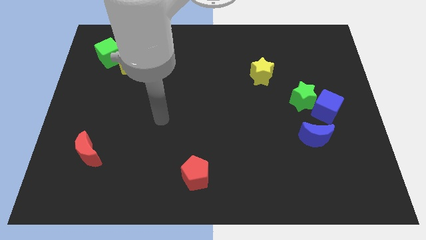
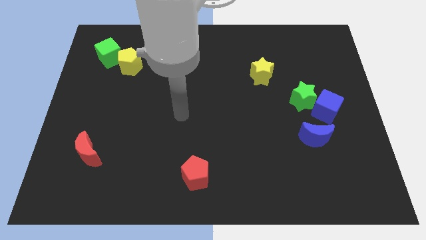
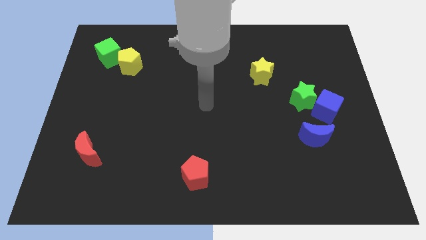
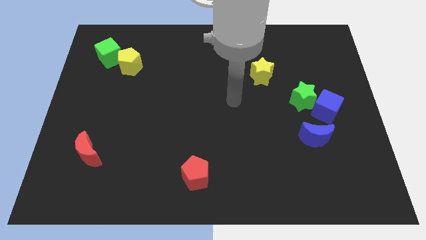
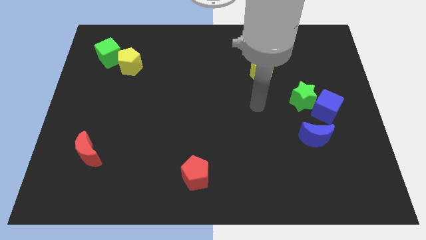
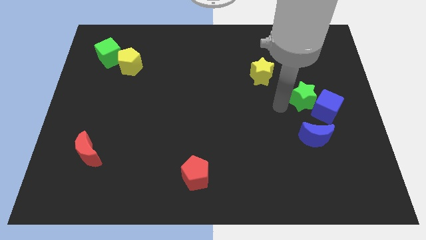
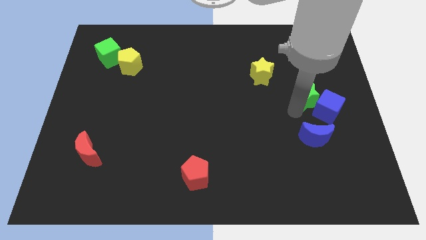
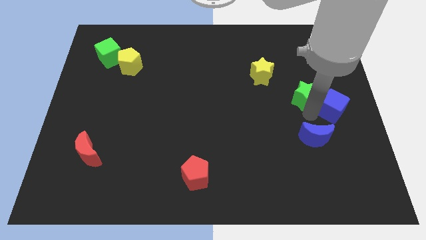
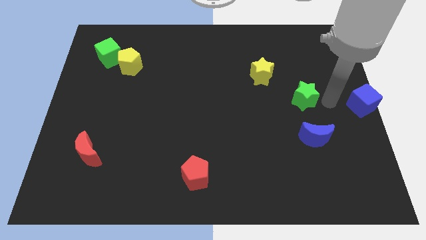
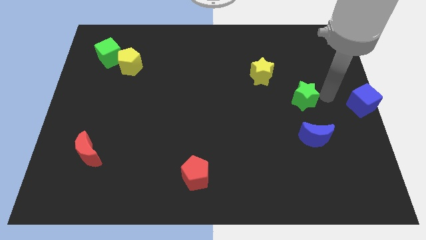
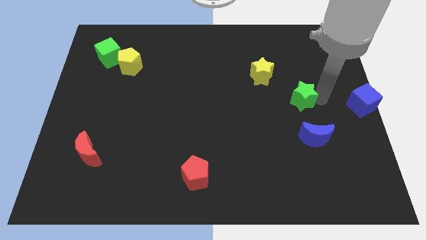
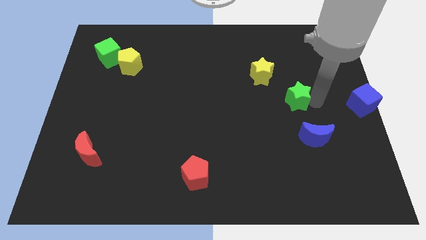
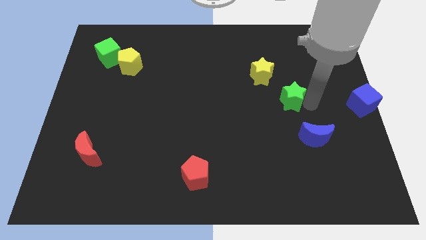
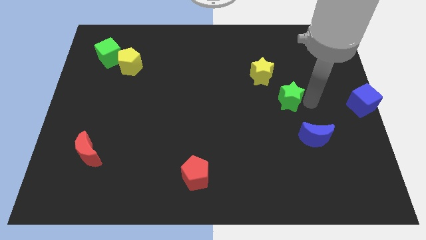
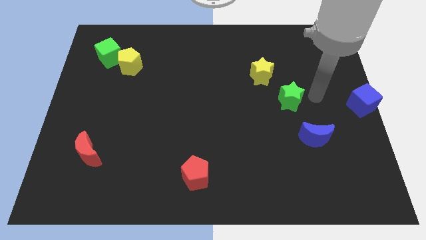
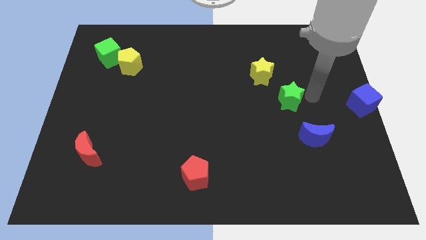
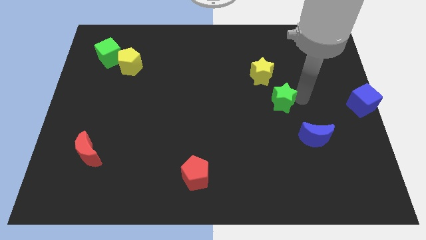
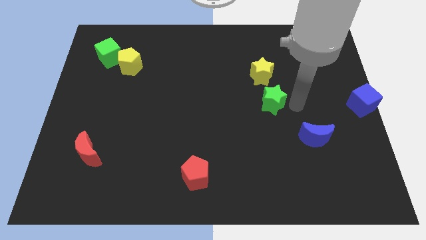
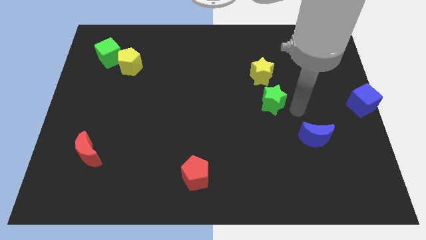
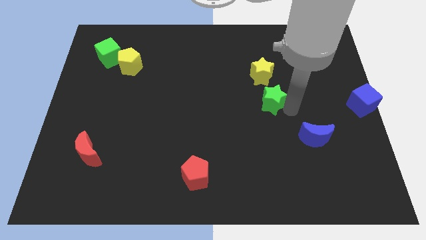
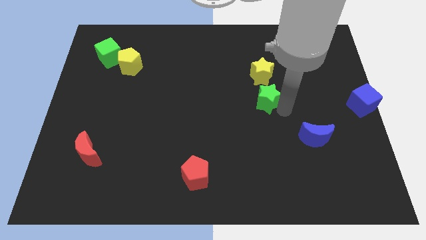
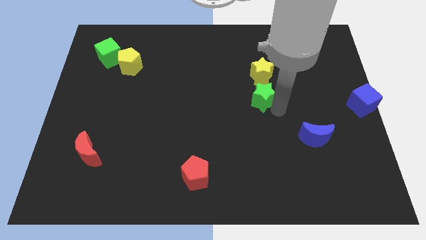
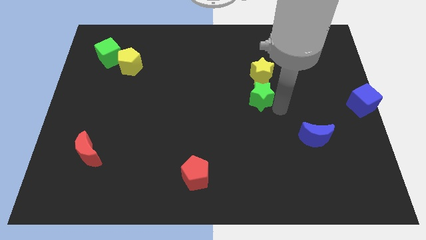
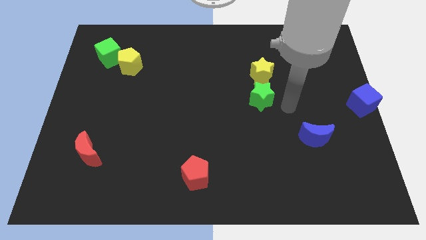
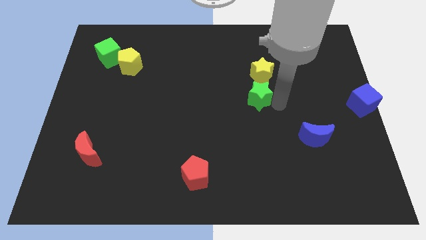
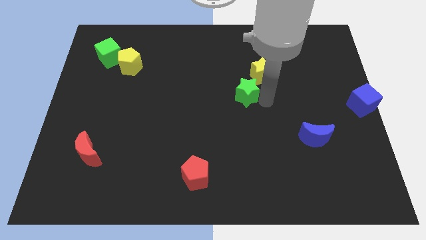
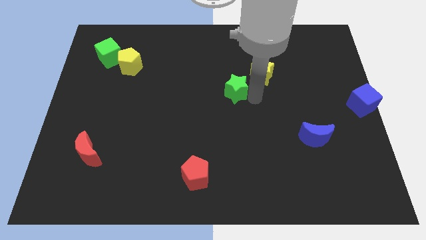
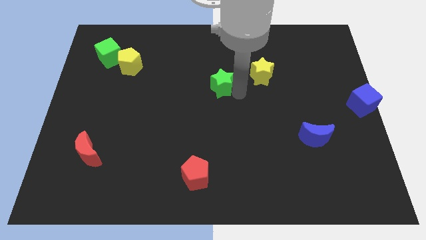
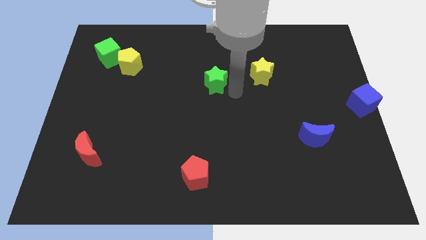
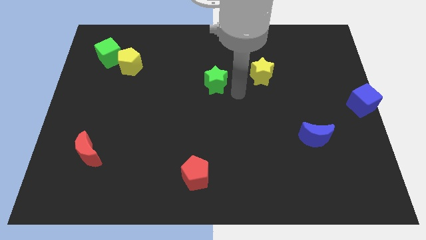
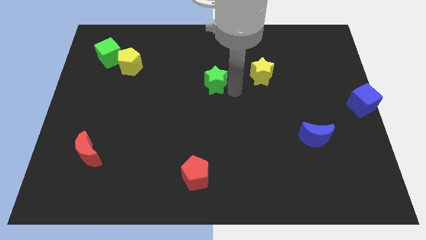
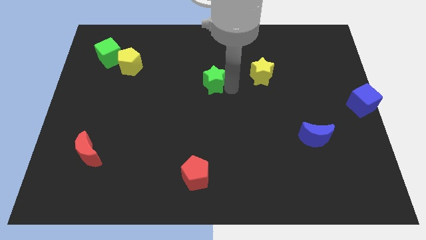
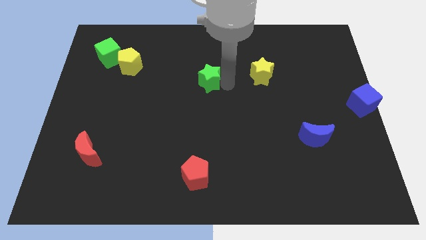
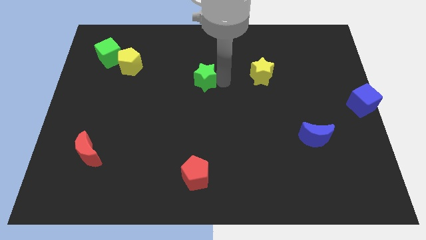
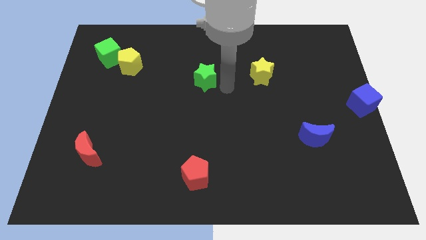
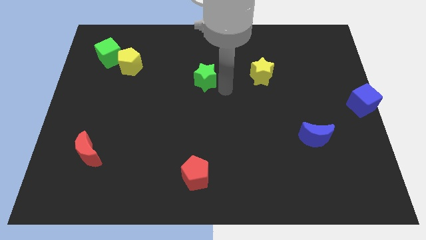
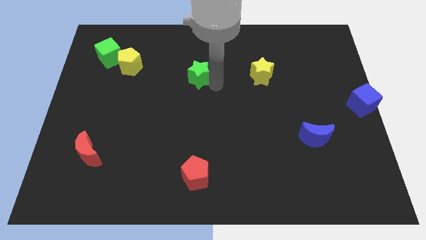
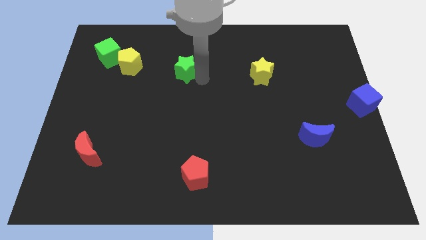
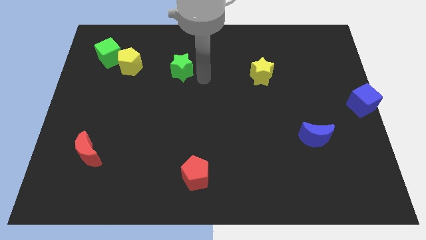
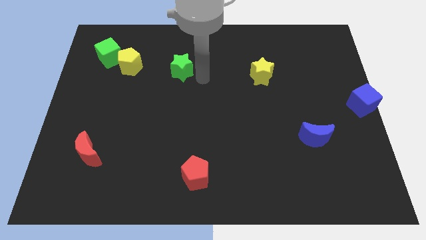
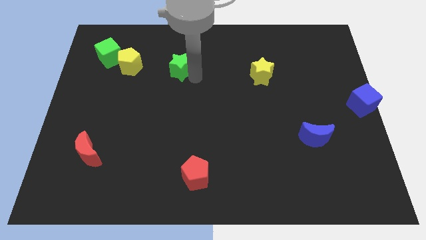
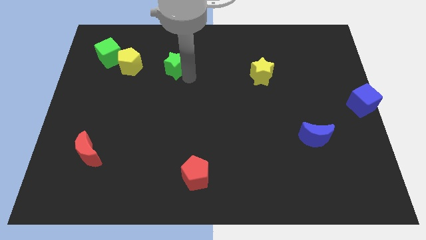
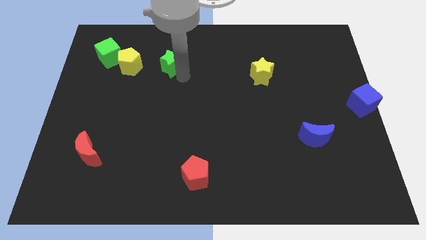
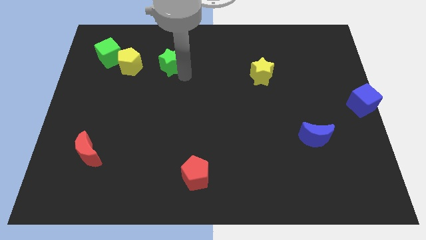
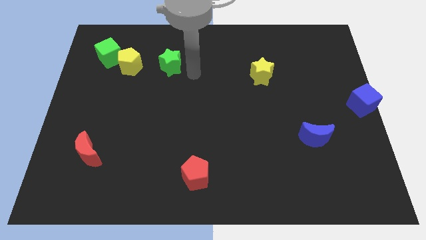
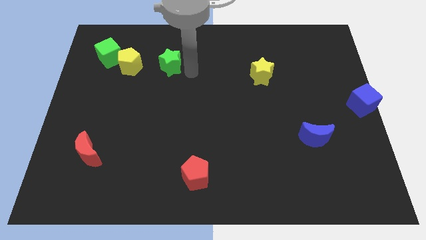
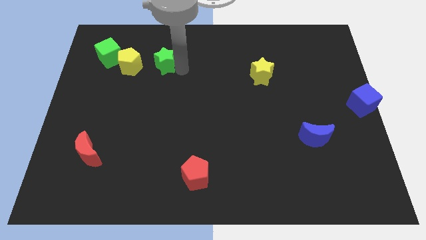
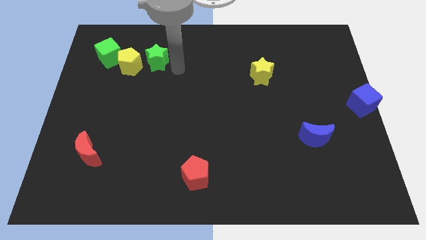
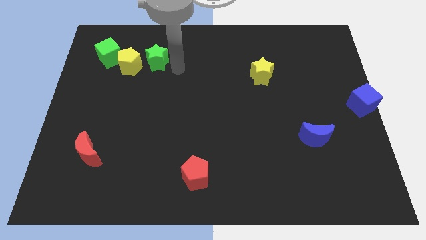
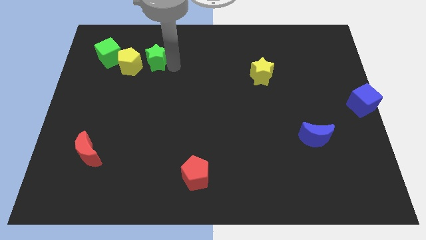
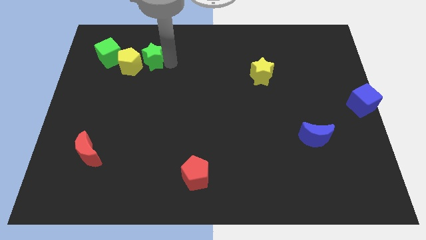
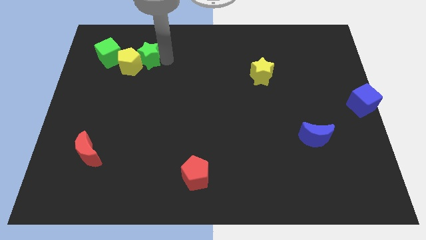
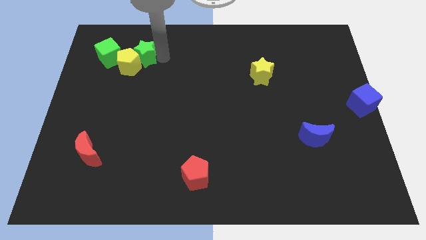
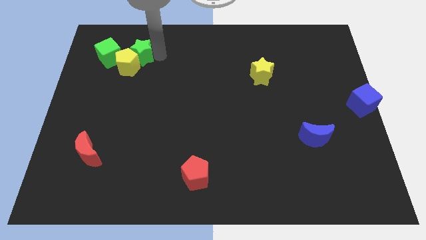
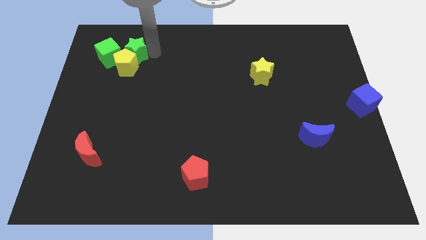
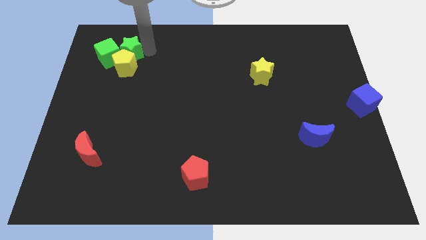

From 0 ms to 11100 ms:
put the green star close to the green cube

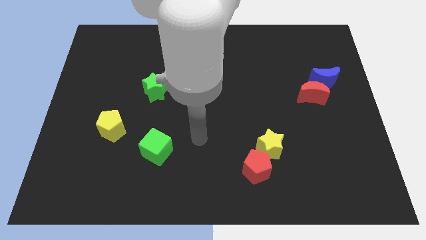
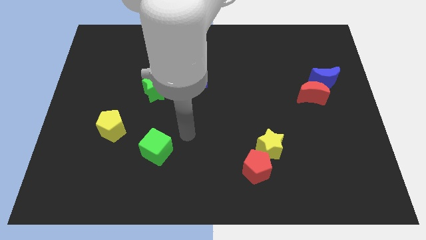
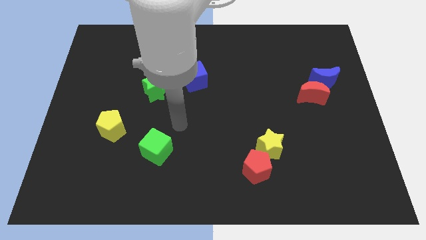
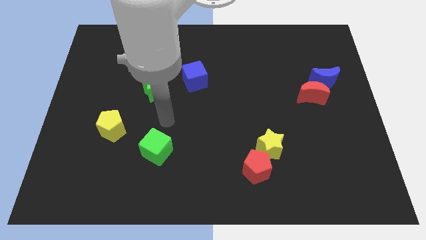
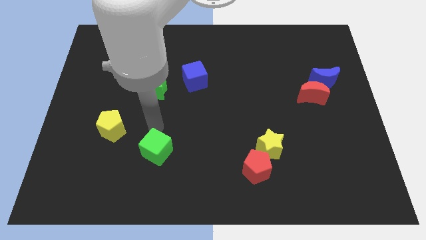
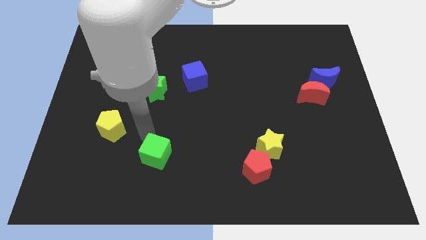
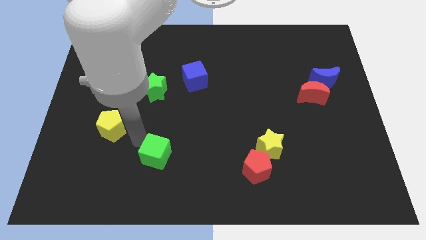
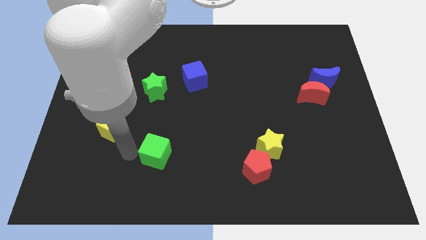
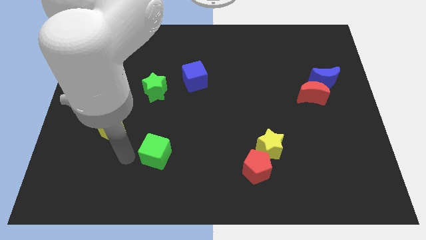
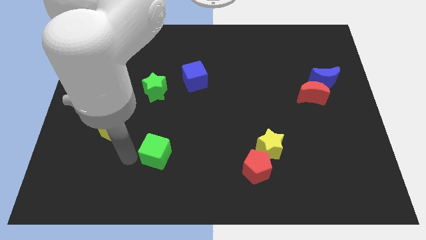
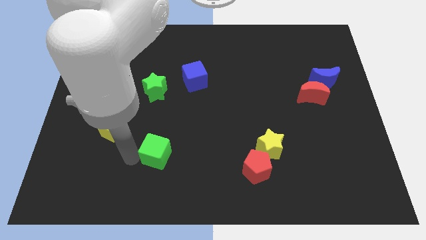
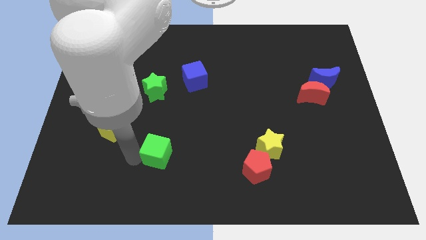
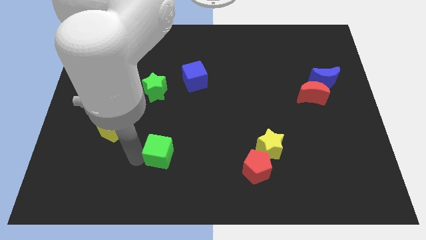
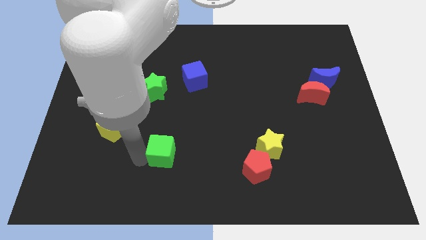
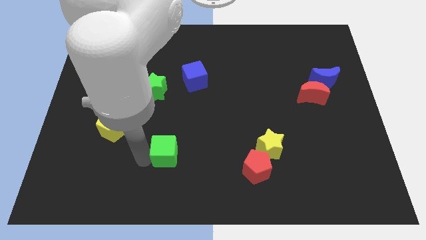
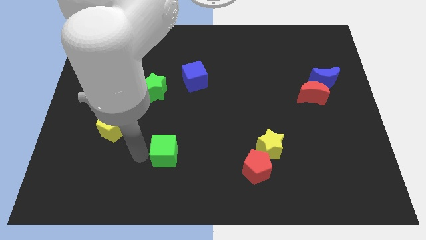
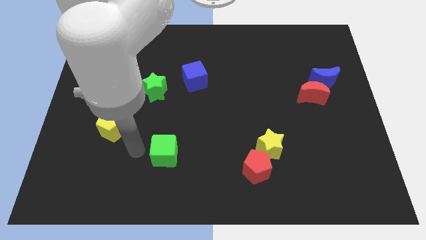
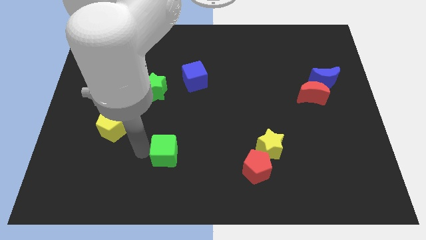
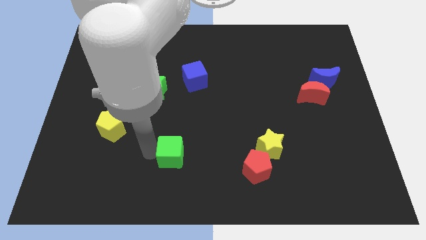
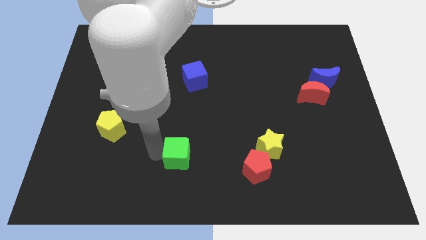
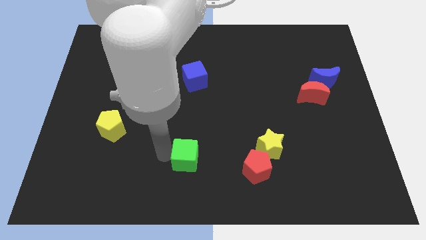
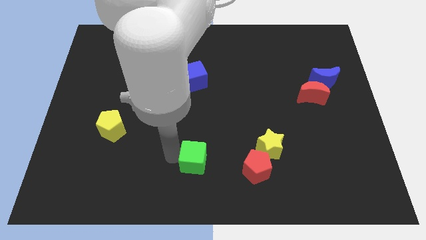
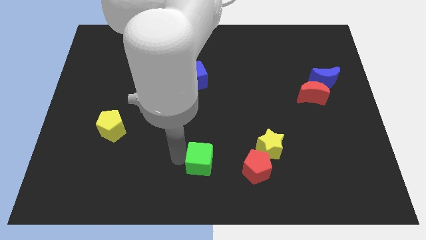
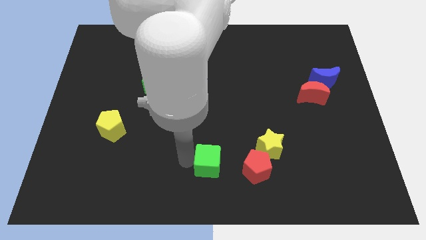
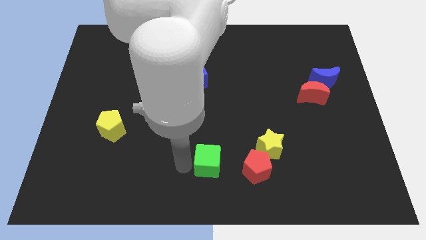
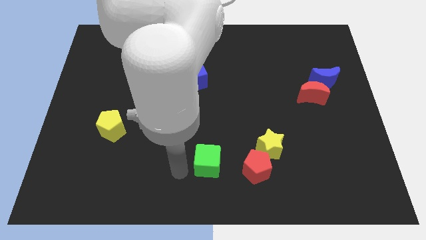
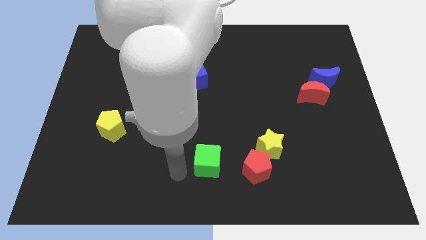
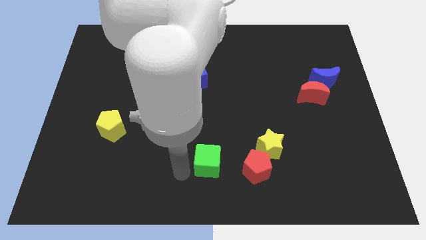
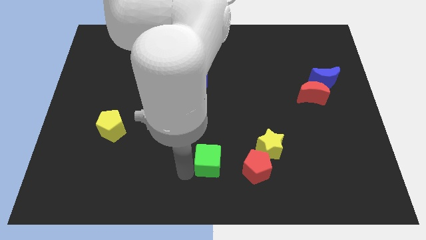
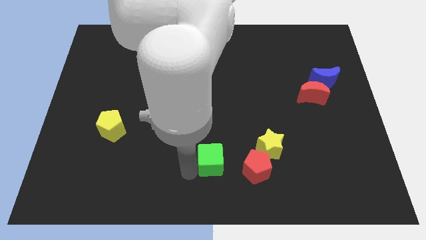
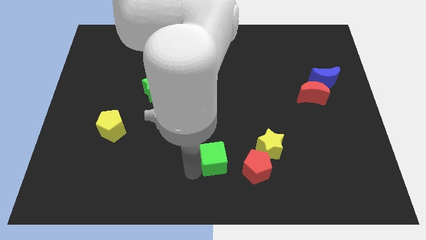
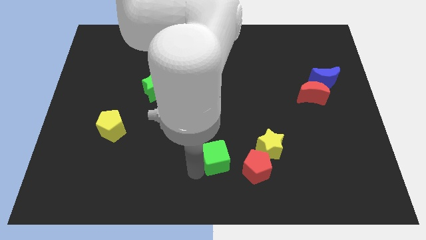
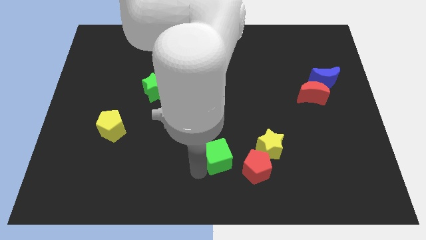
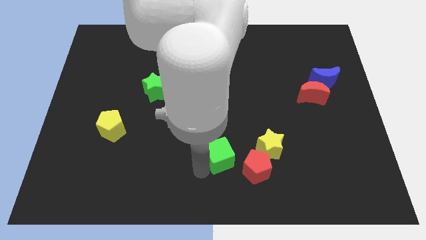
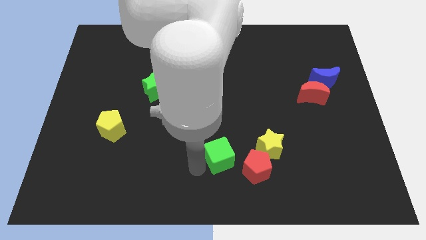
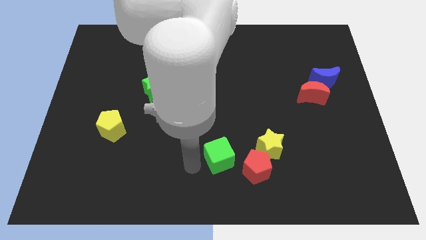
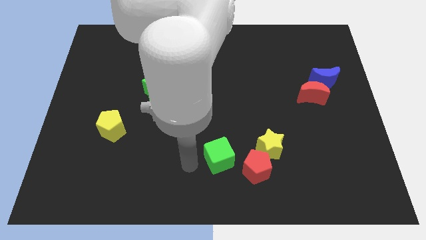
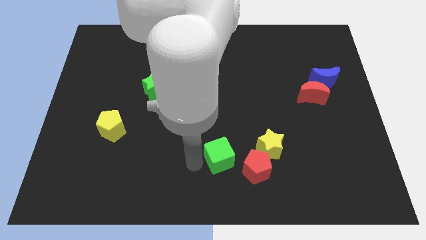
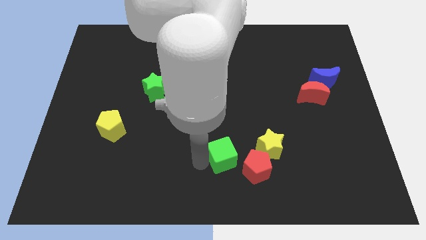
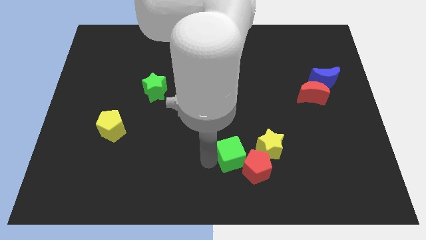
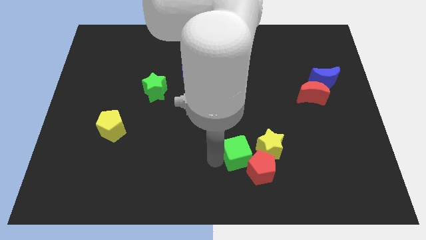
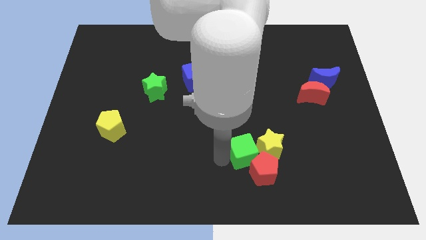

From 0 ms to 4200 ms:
push the green cube to the yellow star
